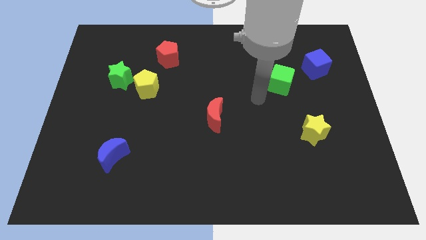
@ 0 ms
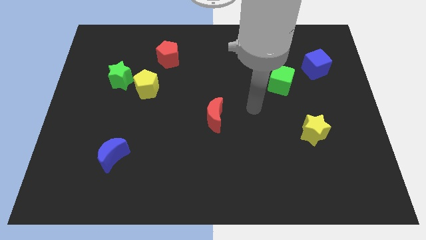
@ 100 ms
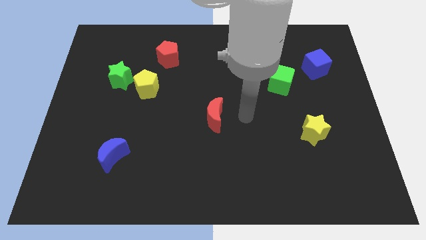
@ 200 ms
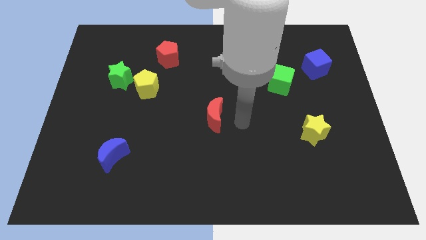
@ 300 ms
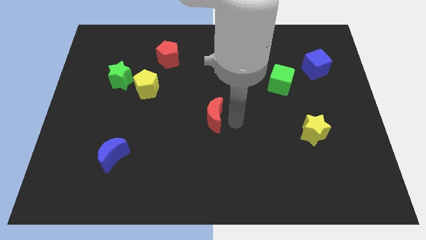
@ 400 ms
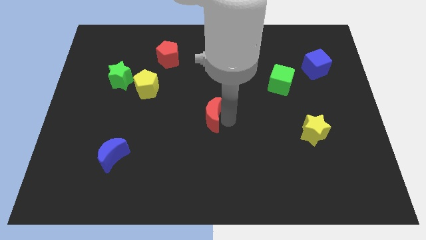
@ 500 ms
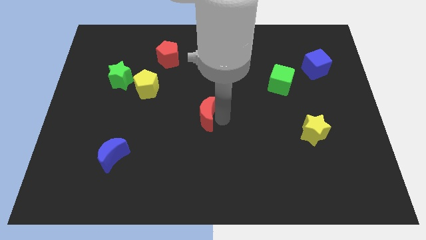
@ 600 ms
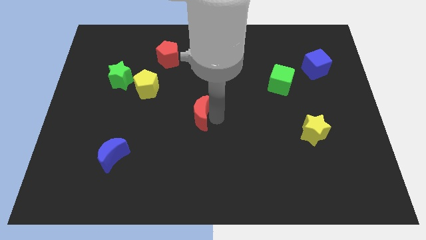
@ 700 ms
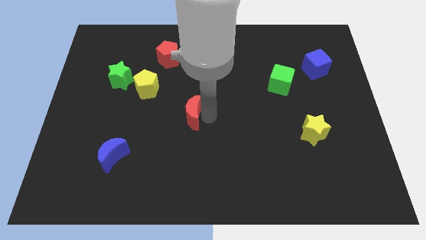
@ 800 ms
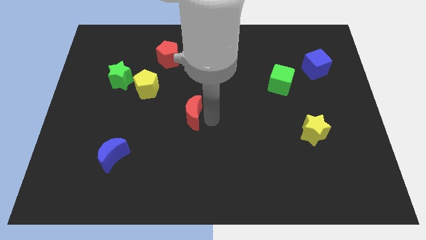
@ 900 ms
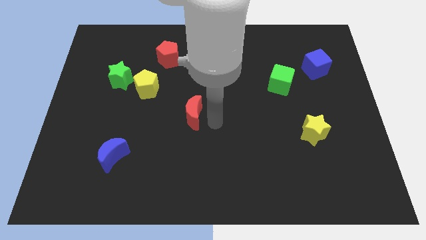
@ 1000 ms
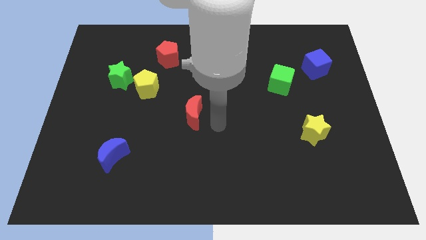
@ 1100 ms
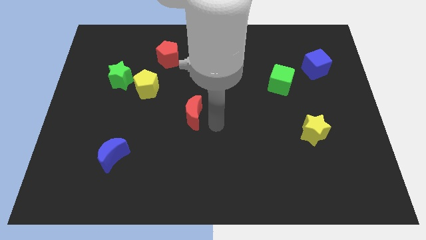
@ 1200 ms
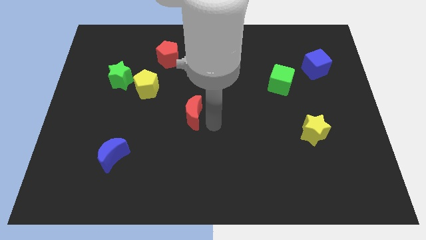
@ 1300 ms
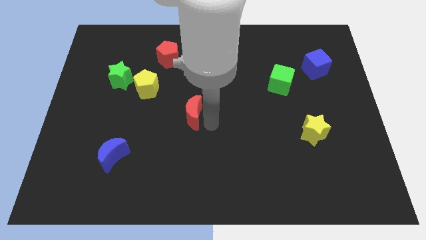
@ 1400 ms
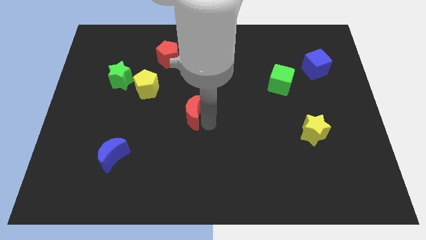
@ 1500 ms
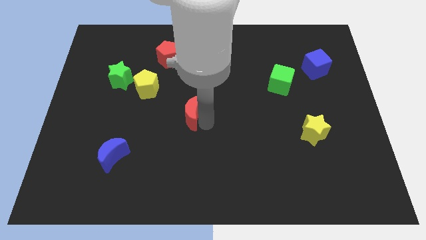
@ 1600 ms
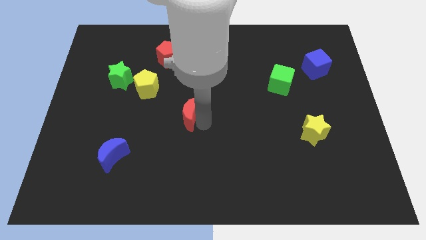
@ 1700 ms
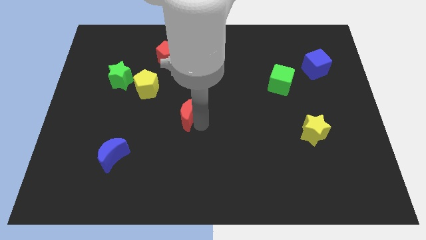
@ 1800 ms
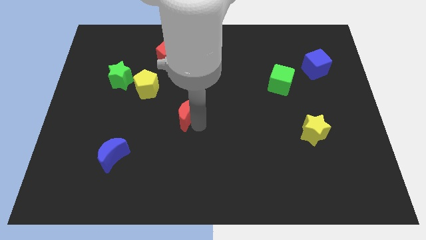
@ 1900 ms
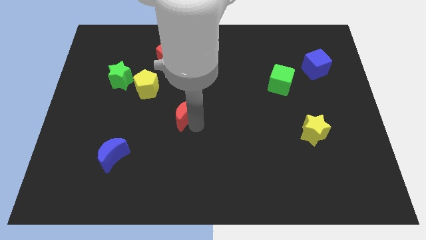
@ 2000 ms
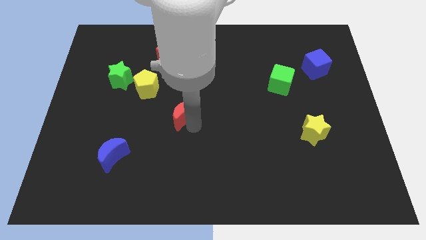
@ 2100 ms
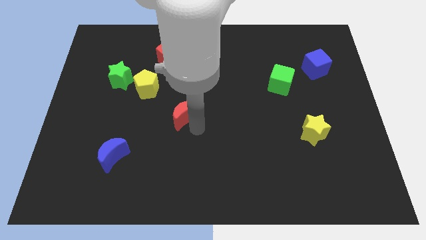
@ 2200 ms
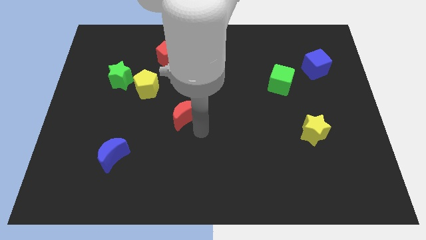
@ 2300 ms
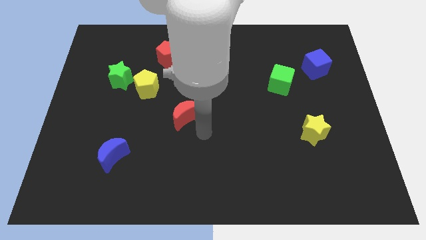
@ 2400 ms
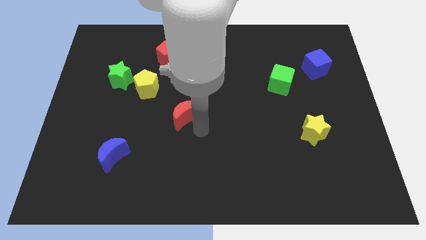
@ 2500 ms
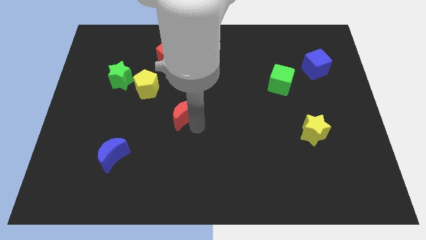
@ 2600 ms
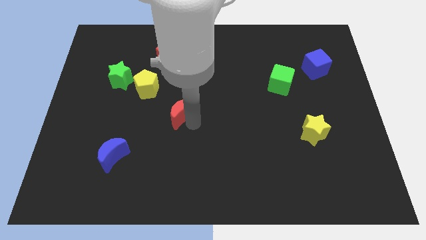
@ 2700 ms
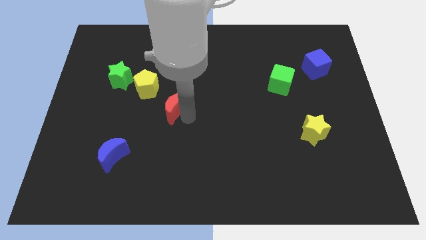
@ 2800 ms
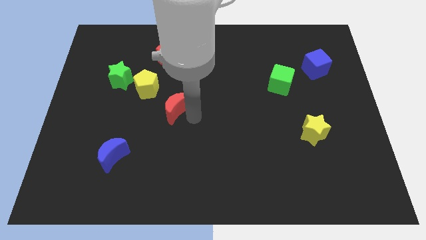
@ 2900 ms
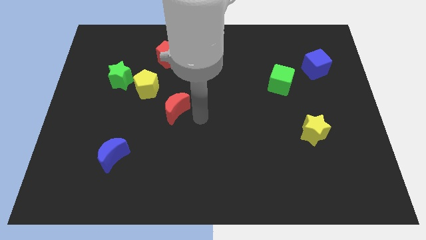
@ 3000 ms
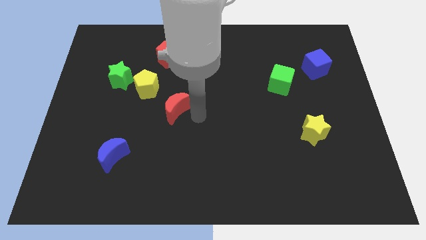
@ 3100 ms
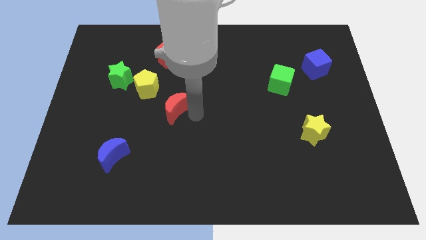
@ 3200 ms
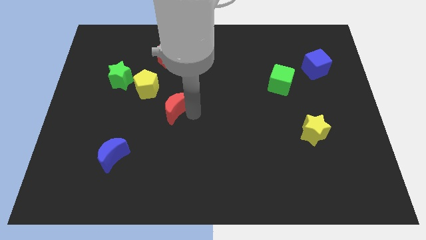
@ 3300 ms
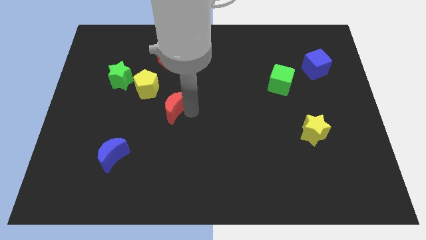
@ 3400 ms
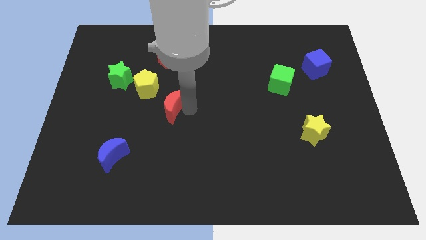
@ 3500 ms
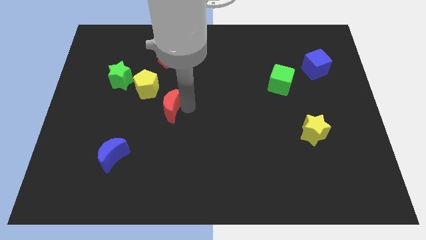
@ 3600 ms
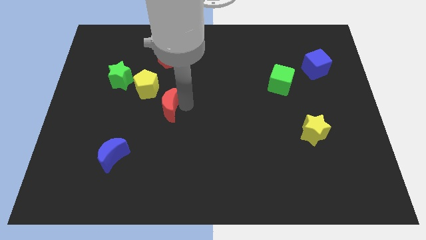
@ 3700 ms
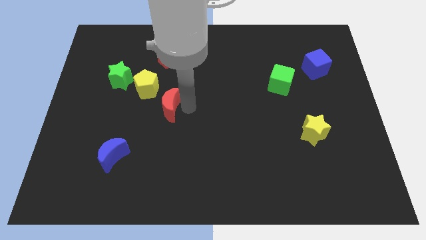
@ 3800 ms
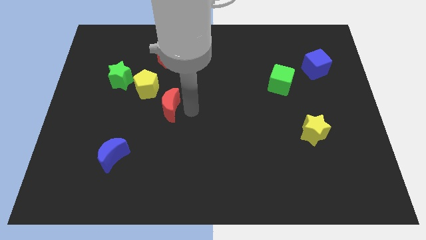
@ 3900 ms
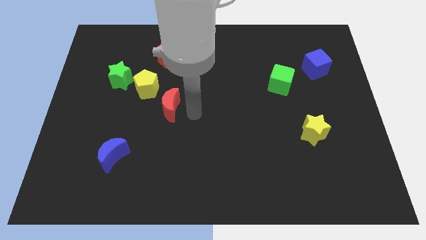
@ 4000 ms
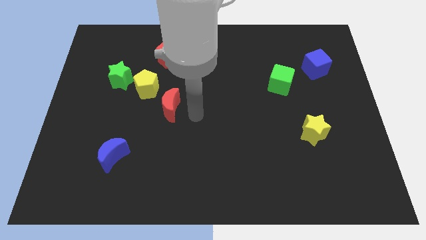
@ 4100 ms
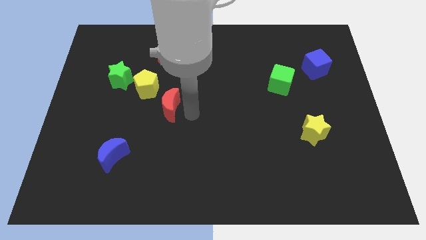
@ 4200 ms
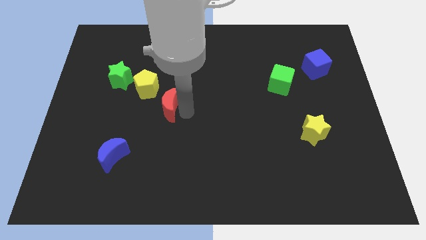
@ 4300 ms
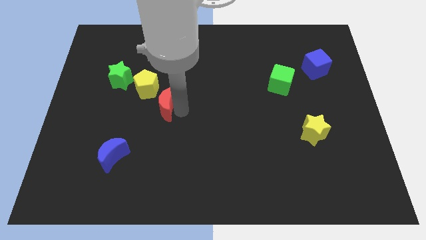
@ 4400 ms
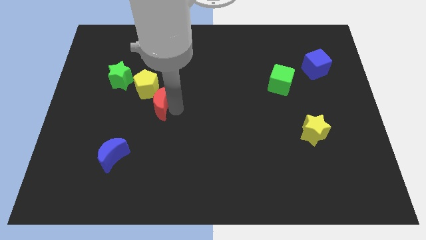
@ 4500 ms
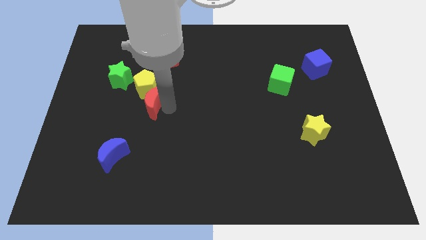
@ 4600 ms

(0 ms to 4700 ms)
push the red moon to the bottom right of the green star
